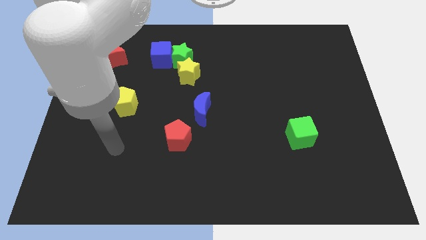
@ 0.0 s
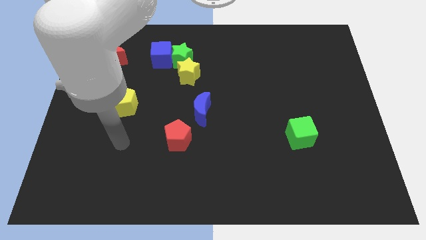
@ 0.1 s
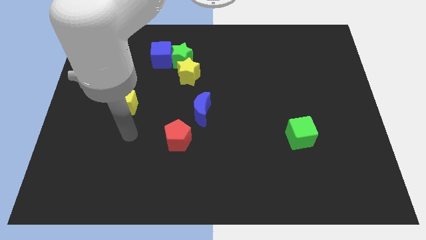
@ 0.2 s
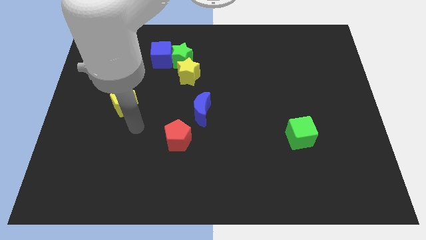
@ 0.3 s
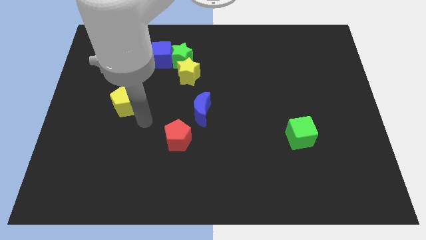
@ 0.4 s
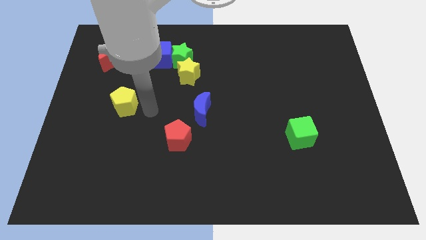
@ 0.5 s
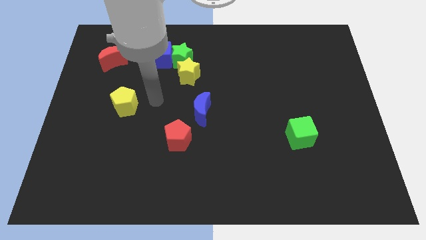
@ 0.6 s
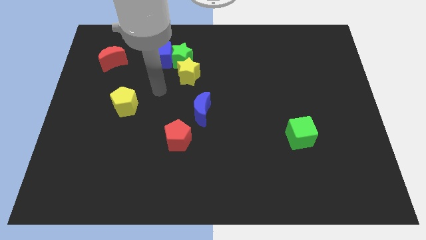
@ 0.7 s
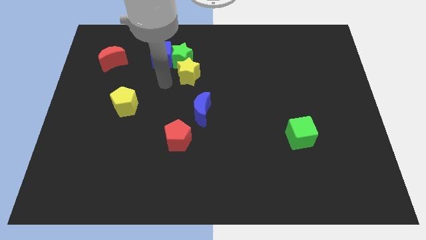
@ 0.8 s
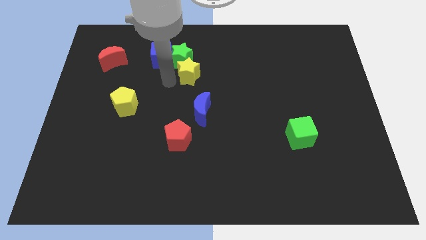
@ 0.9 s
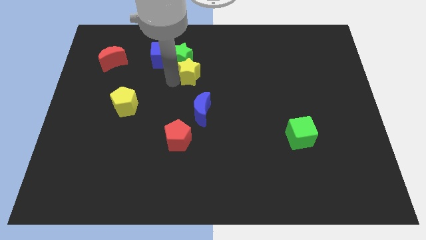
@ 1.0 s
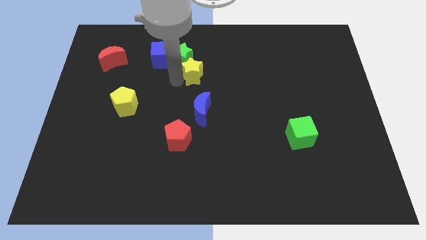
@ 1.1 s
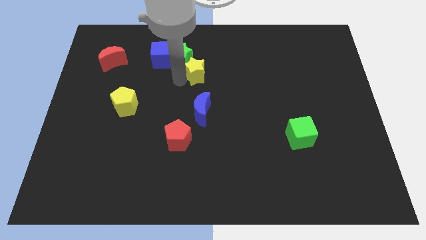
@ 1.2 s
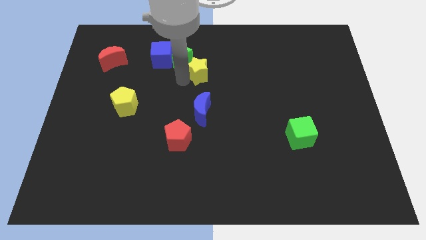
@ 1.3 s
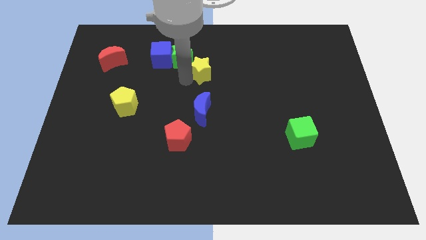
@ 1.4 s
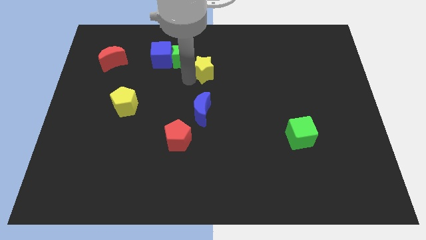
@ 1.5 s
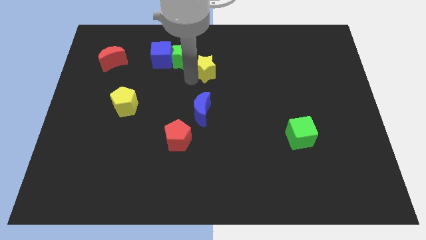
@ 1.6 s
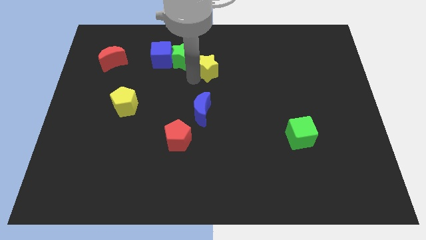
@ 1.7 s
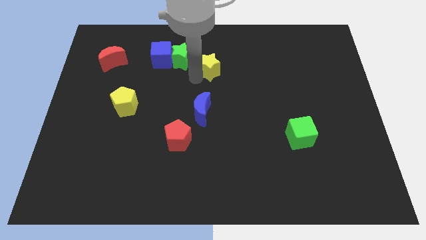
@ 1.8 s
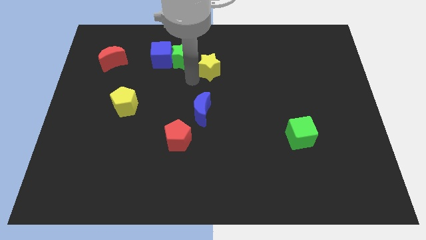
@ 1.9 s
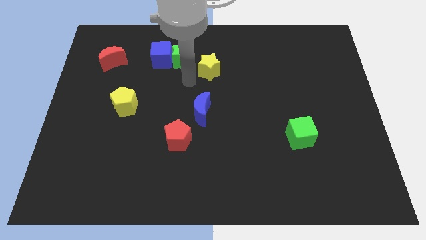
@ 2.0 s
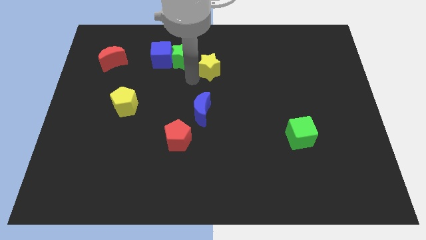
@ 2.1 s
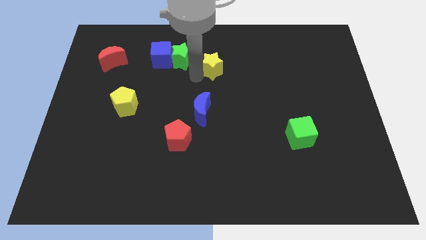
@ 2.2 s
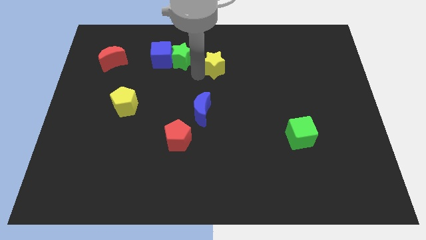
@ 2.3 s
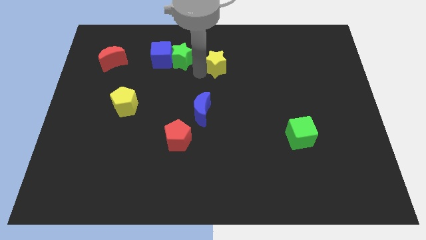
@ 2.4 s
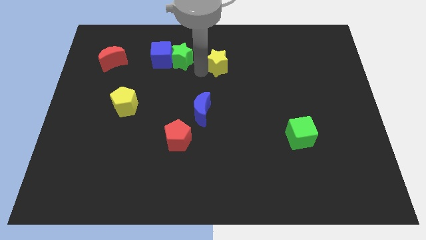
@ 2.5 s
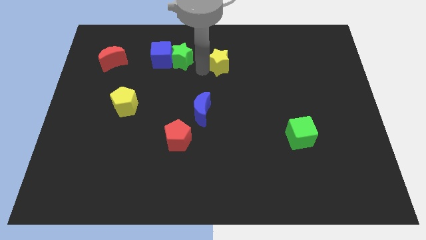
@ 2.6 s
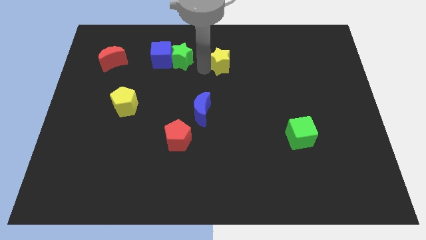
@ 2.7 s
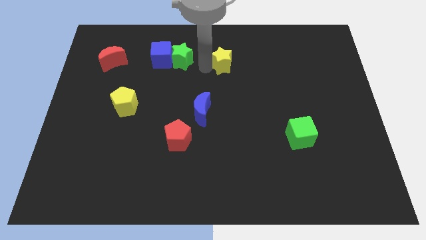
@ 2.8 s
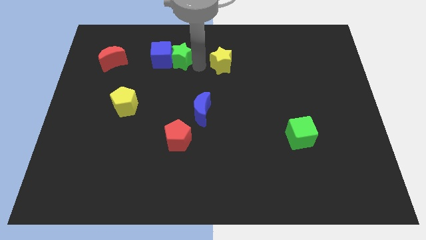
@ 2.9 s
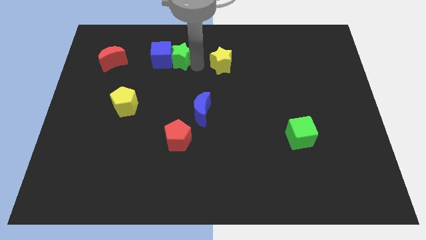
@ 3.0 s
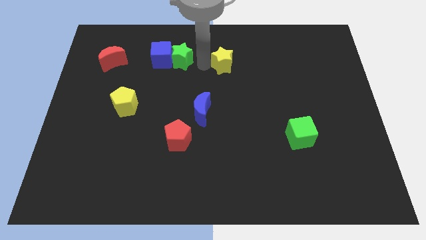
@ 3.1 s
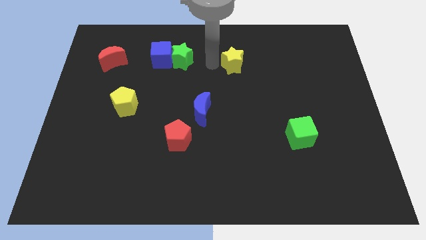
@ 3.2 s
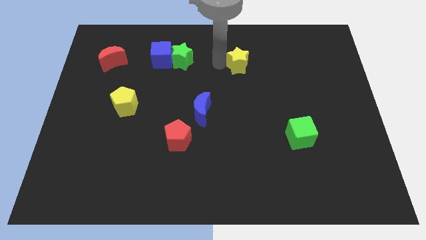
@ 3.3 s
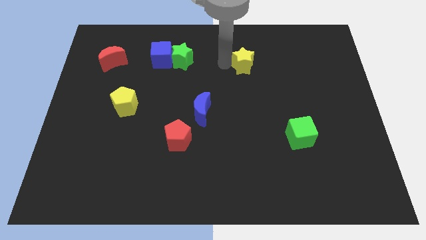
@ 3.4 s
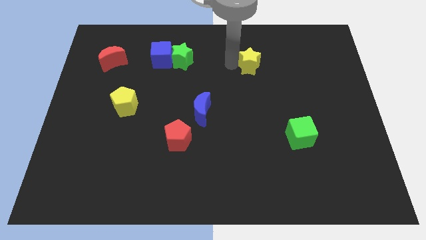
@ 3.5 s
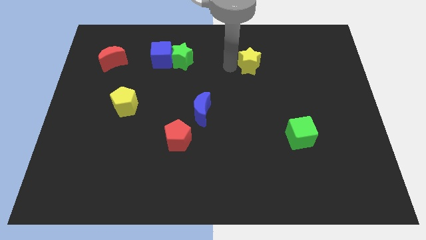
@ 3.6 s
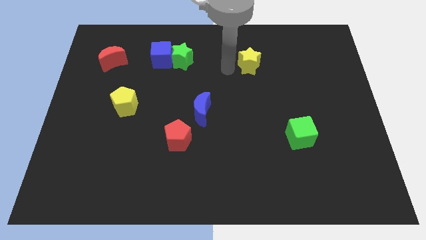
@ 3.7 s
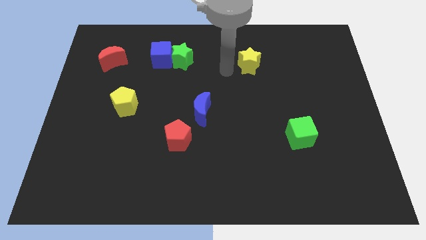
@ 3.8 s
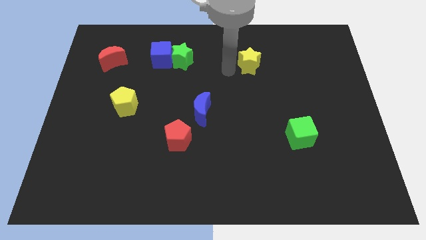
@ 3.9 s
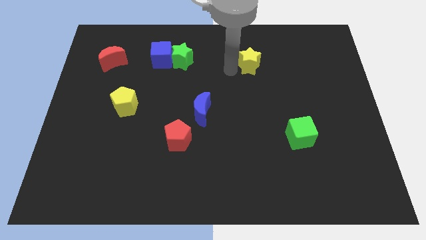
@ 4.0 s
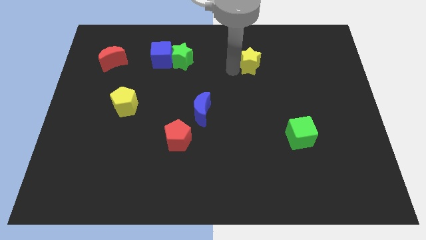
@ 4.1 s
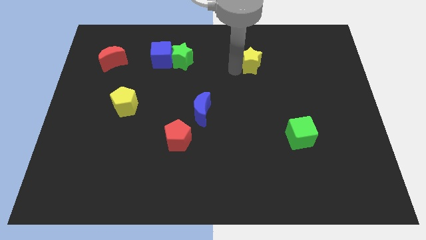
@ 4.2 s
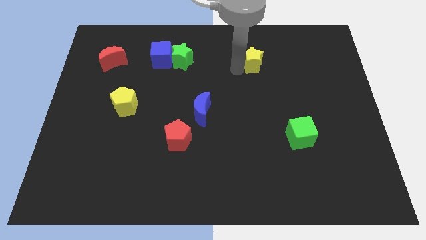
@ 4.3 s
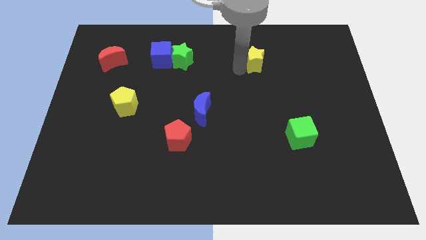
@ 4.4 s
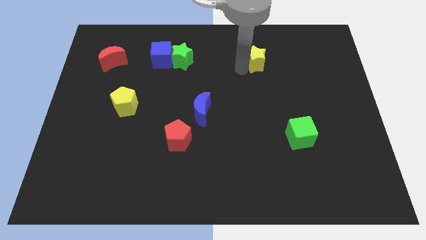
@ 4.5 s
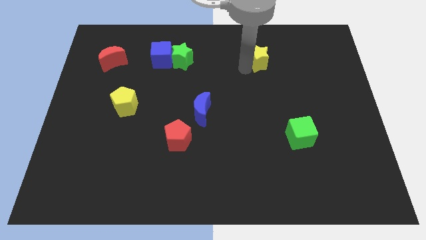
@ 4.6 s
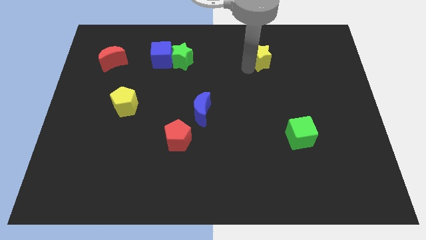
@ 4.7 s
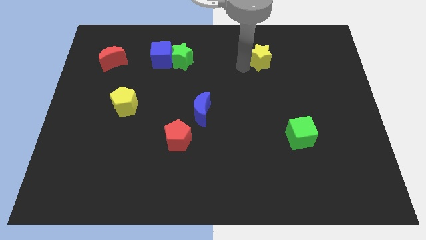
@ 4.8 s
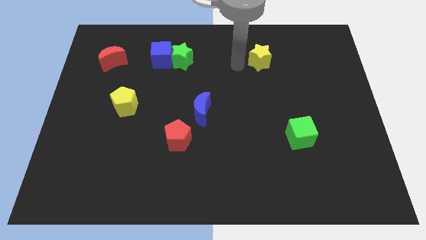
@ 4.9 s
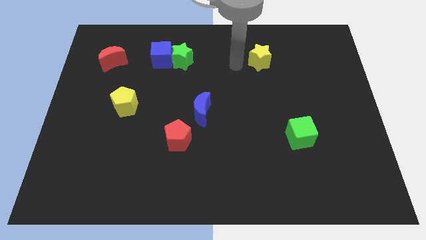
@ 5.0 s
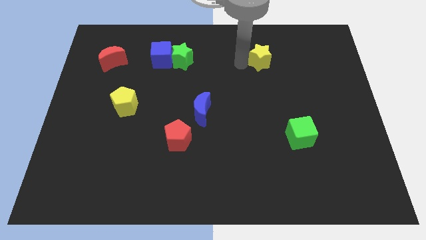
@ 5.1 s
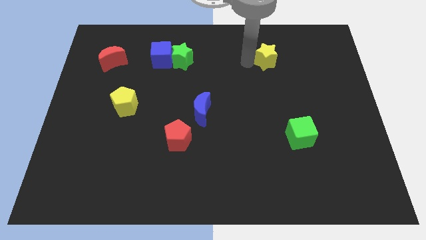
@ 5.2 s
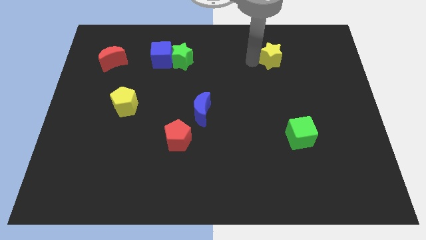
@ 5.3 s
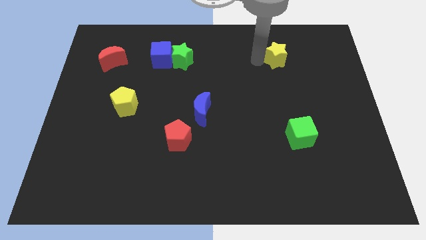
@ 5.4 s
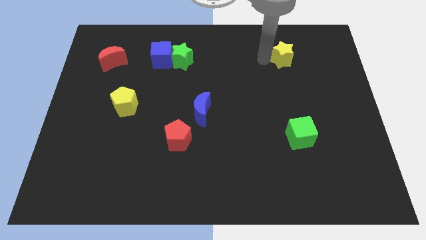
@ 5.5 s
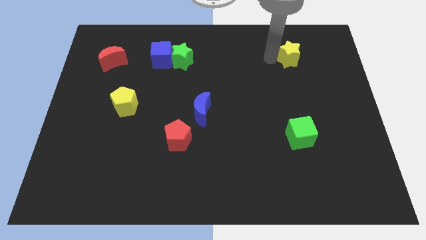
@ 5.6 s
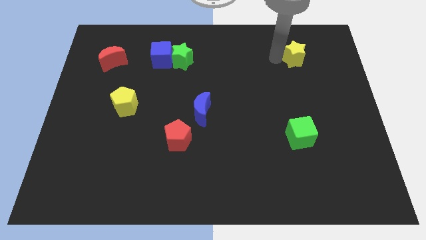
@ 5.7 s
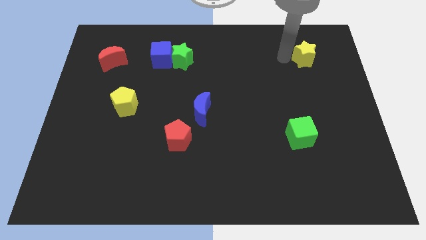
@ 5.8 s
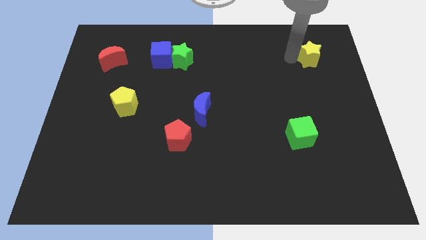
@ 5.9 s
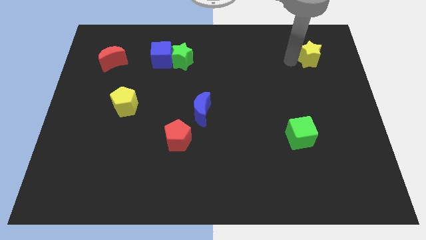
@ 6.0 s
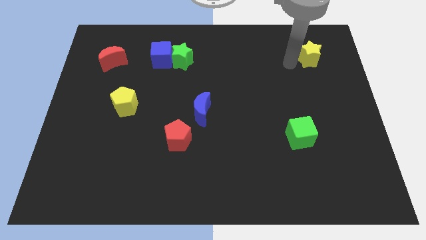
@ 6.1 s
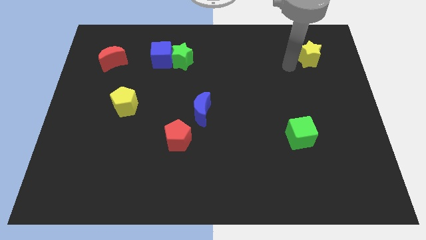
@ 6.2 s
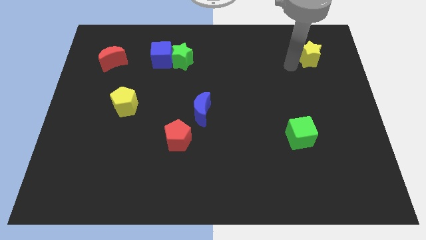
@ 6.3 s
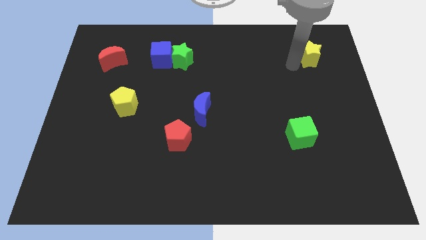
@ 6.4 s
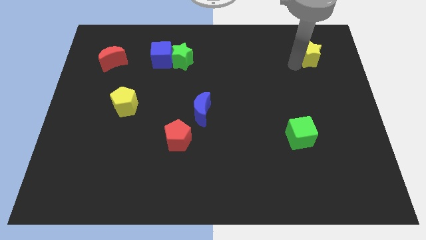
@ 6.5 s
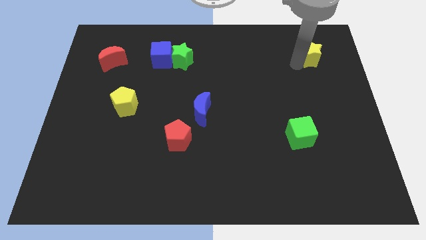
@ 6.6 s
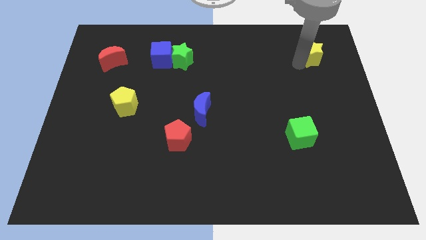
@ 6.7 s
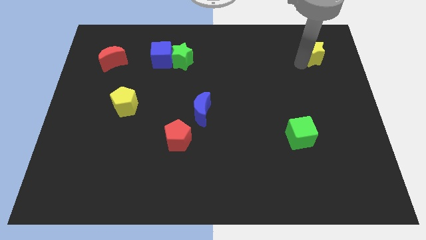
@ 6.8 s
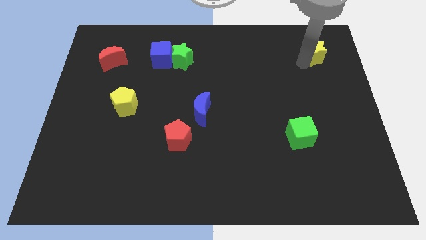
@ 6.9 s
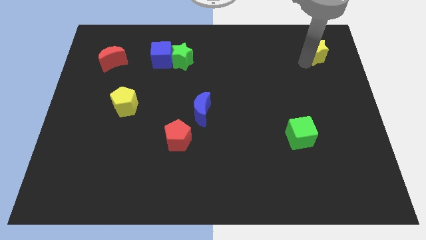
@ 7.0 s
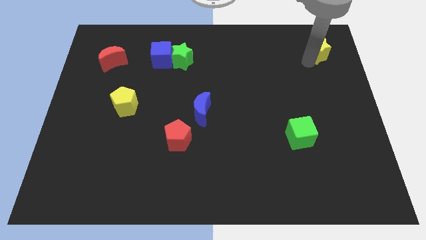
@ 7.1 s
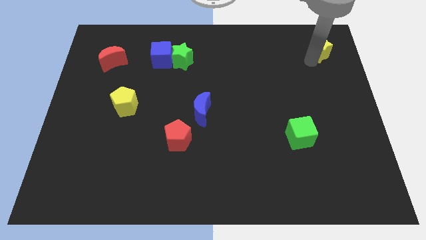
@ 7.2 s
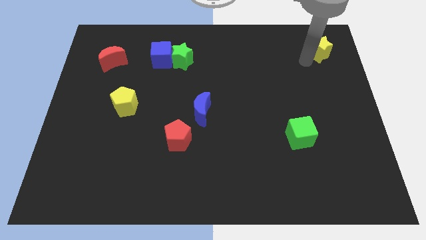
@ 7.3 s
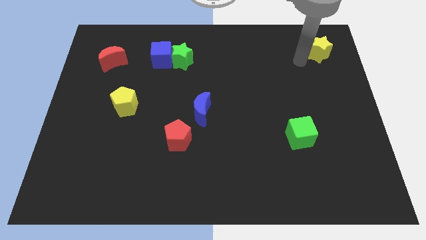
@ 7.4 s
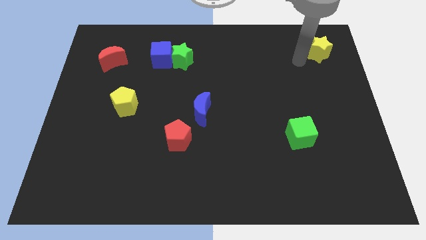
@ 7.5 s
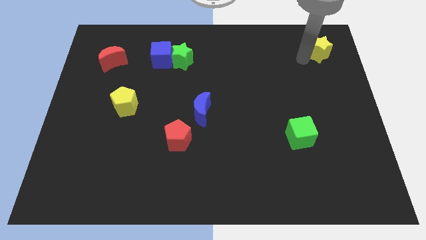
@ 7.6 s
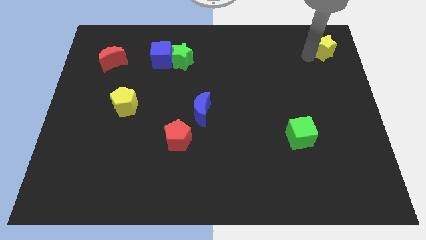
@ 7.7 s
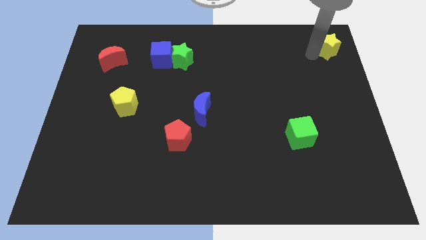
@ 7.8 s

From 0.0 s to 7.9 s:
move the yellow star to the top right
